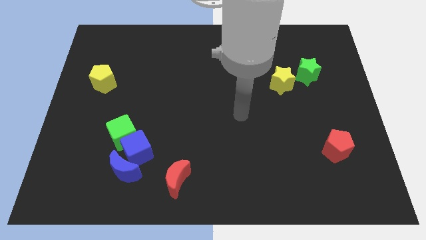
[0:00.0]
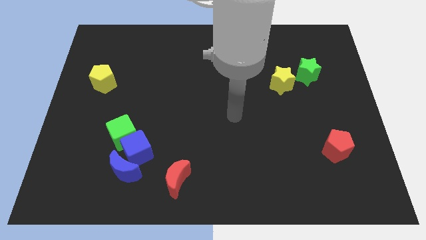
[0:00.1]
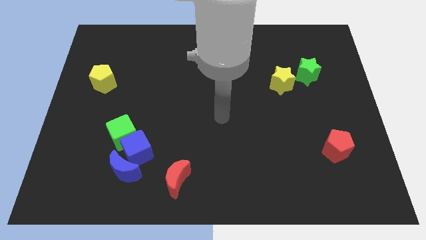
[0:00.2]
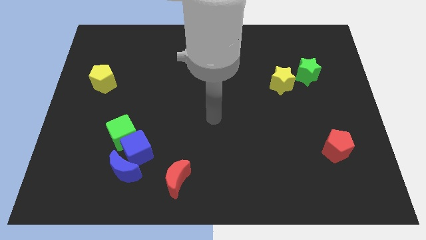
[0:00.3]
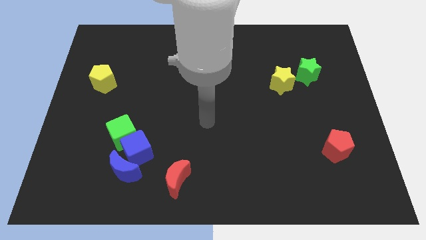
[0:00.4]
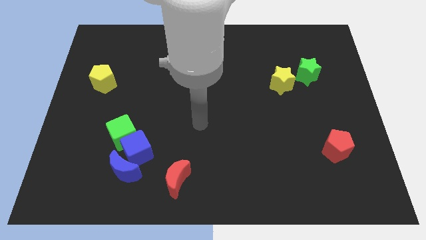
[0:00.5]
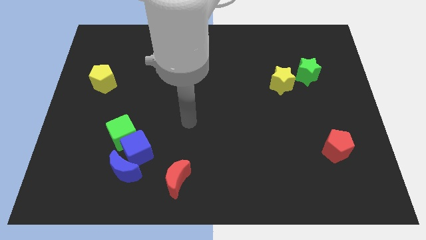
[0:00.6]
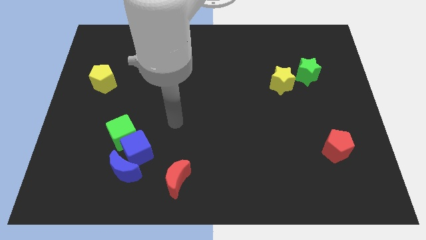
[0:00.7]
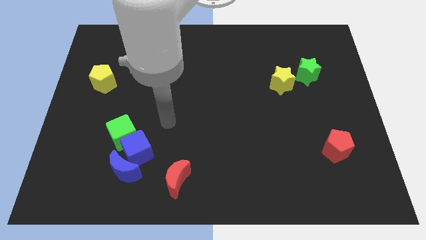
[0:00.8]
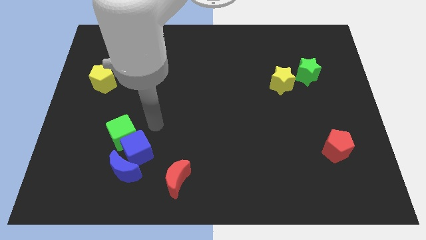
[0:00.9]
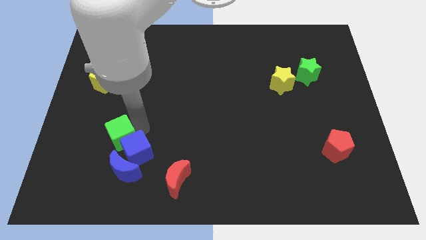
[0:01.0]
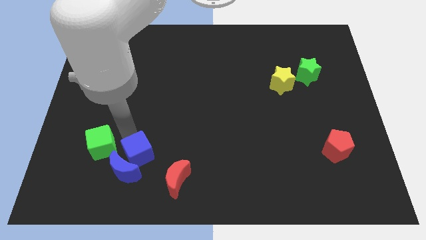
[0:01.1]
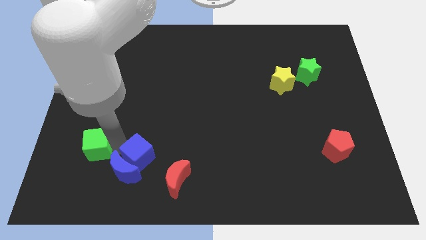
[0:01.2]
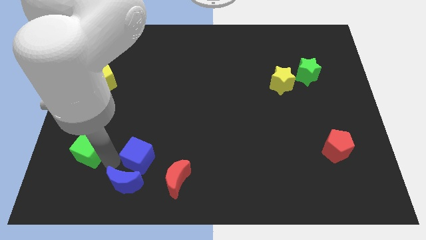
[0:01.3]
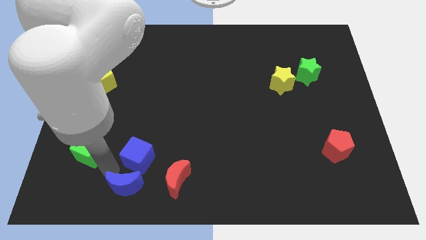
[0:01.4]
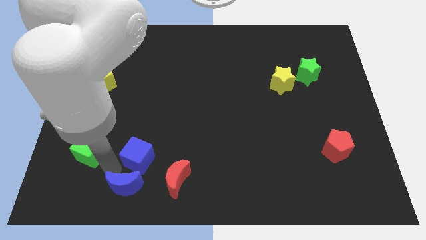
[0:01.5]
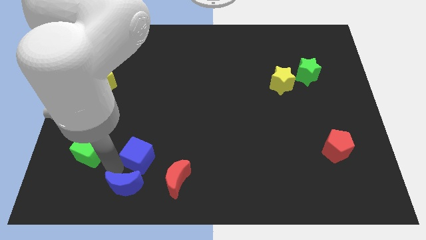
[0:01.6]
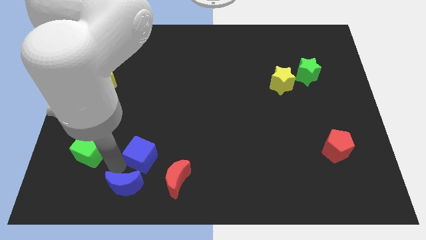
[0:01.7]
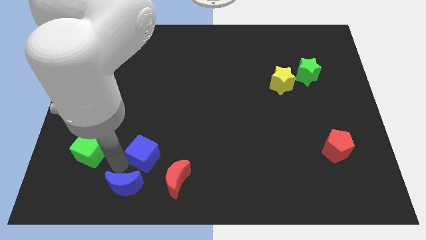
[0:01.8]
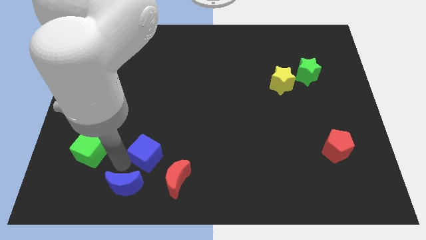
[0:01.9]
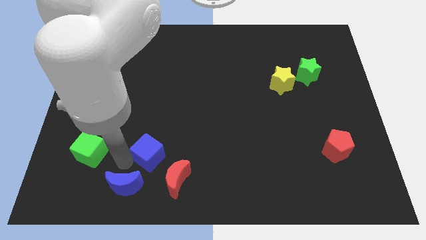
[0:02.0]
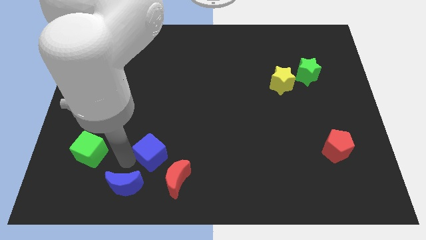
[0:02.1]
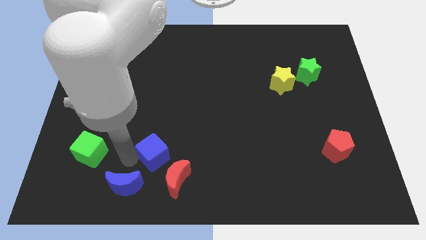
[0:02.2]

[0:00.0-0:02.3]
move the blue cube away from the blue moon and green cube

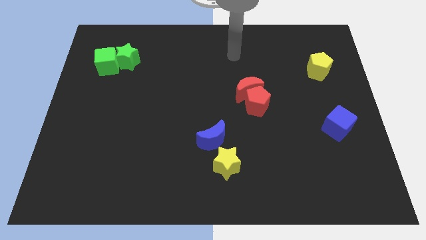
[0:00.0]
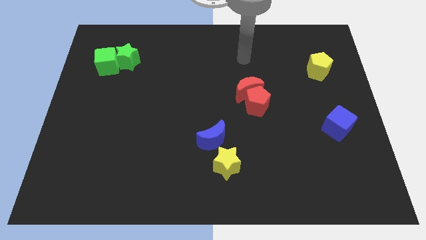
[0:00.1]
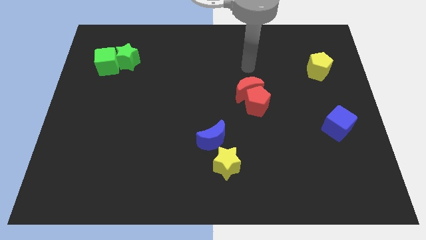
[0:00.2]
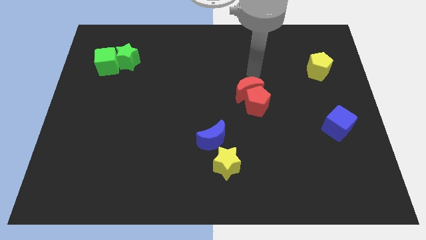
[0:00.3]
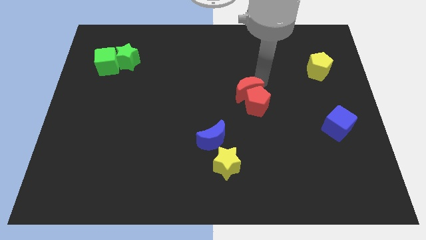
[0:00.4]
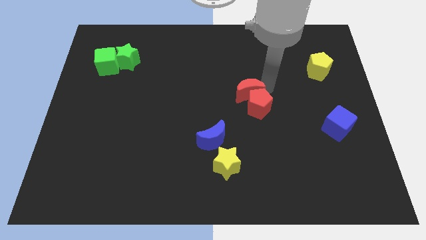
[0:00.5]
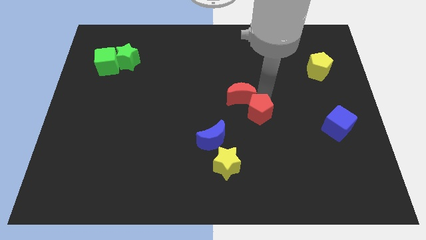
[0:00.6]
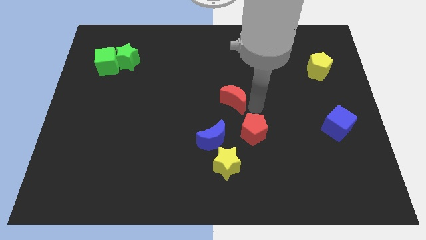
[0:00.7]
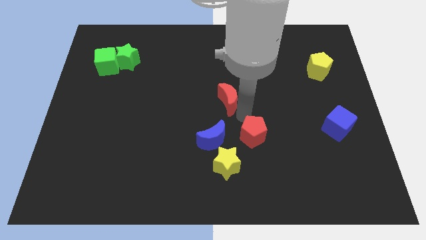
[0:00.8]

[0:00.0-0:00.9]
move the red moon away from the red pentagon

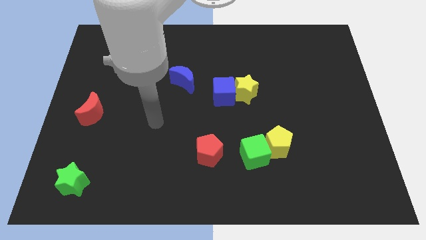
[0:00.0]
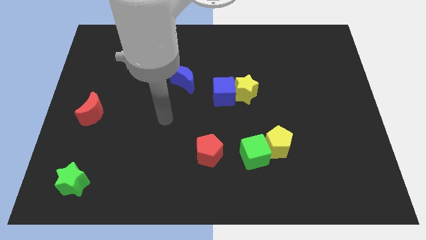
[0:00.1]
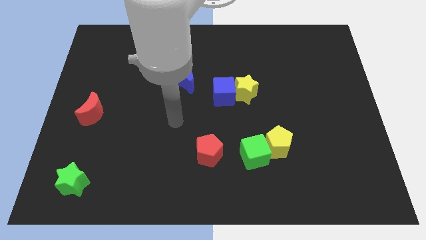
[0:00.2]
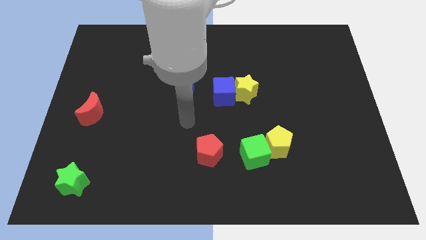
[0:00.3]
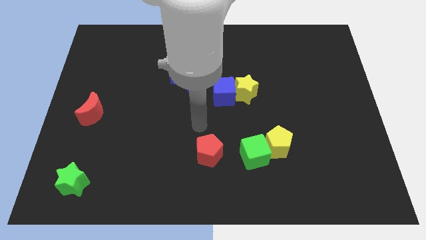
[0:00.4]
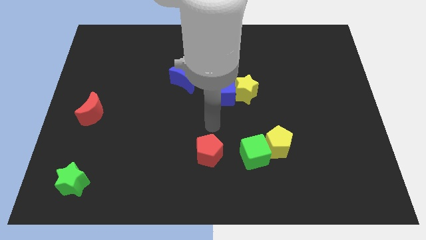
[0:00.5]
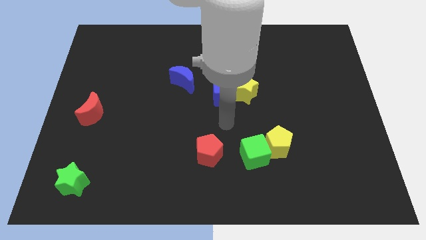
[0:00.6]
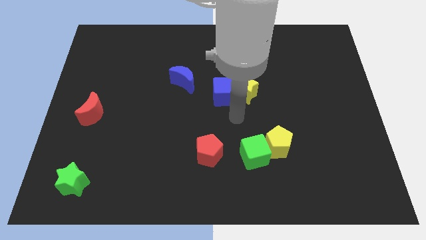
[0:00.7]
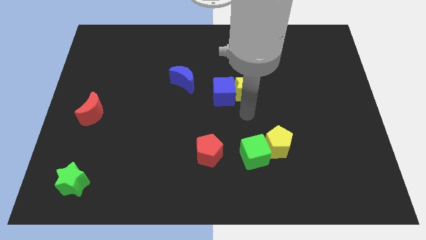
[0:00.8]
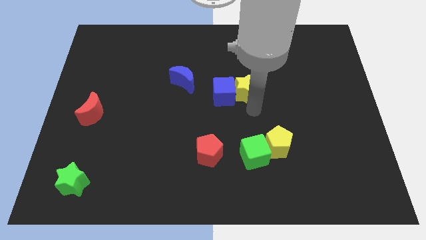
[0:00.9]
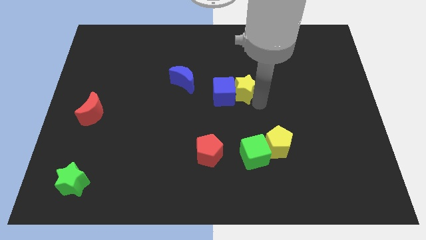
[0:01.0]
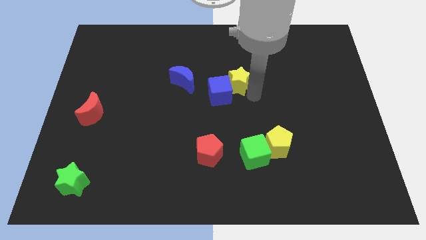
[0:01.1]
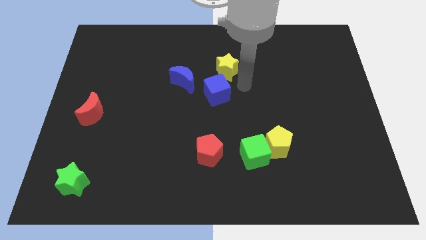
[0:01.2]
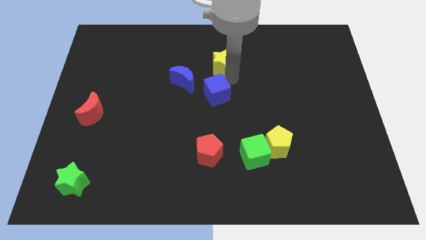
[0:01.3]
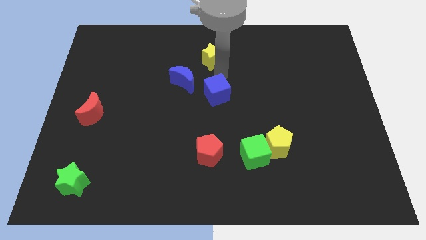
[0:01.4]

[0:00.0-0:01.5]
separate the blue cube from the yellow star

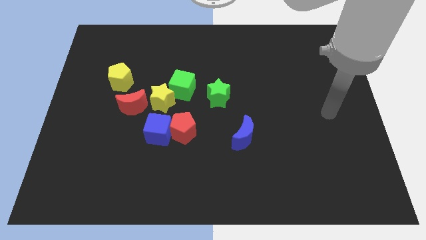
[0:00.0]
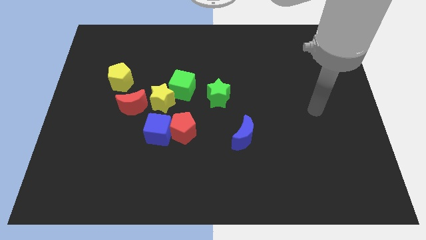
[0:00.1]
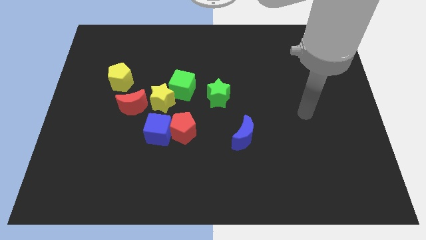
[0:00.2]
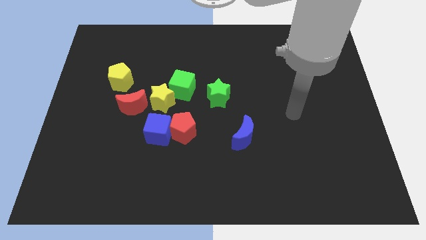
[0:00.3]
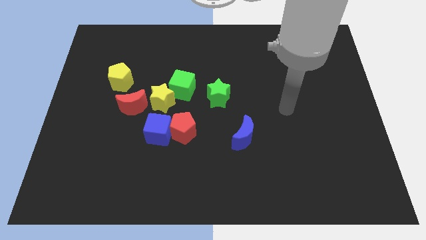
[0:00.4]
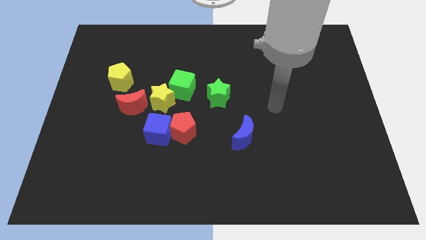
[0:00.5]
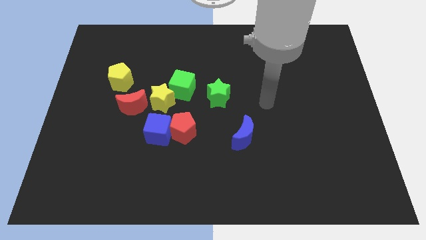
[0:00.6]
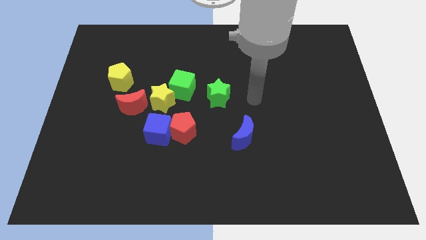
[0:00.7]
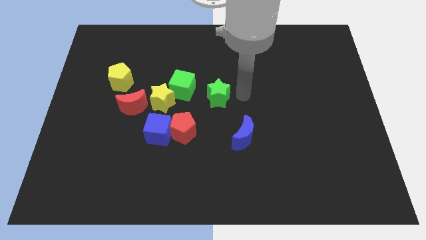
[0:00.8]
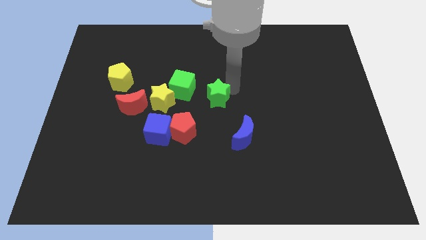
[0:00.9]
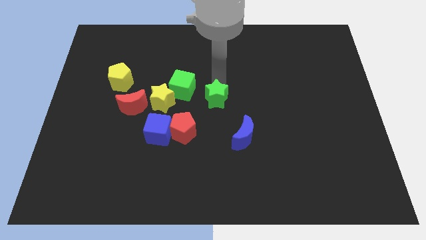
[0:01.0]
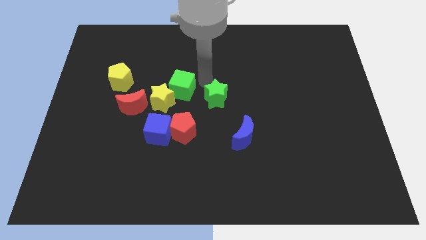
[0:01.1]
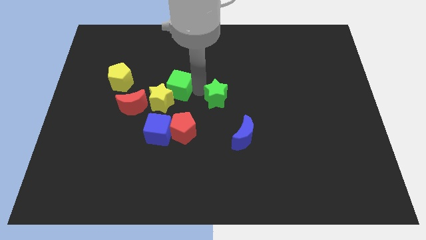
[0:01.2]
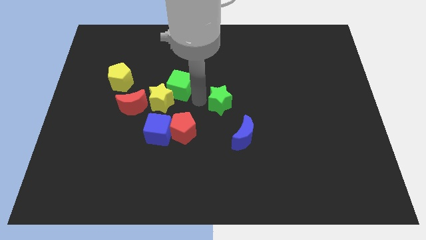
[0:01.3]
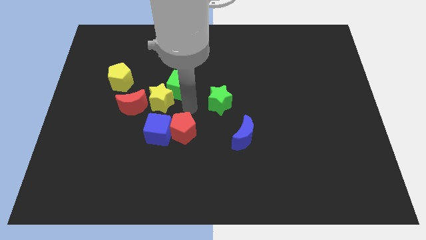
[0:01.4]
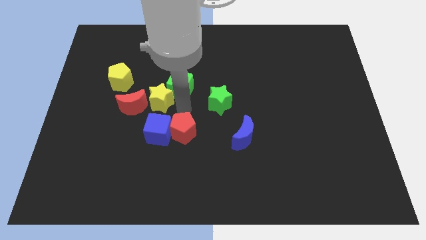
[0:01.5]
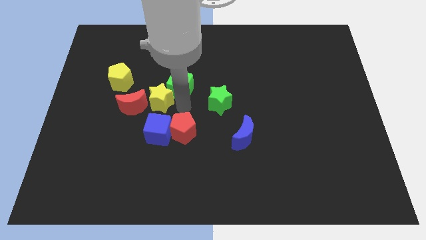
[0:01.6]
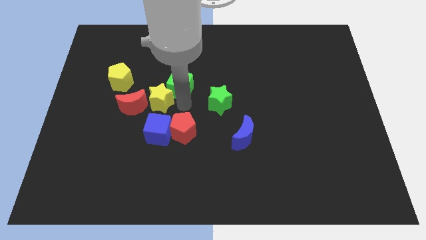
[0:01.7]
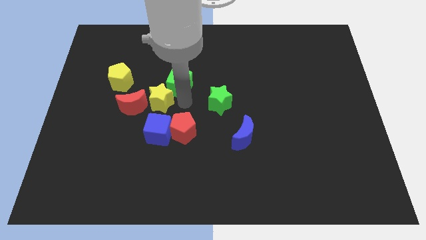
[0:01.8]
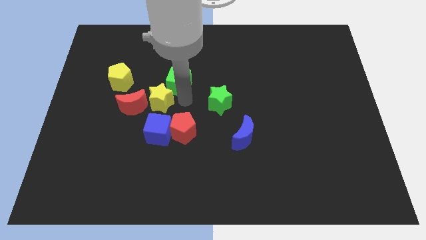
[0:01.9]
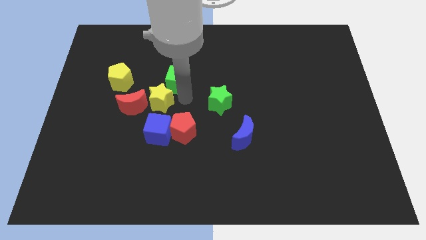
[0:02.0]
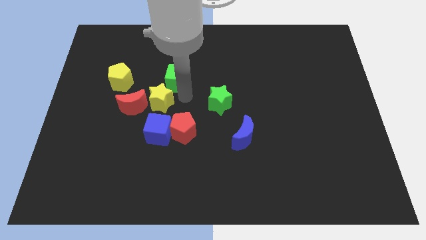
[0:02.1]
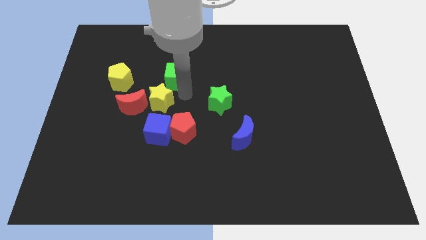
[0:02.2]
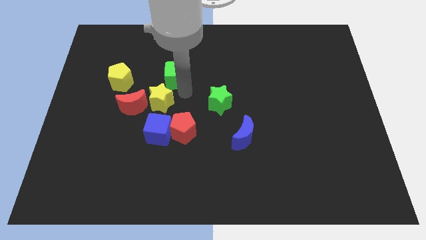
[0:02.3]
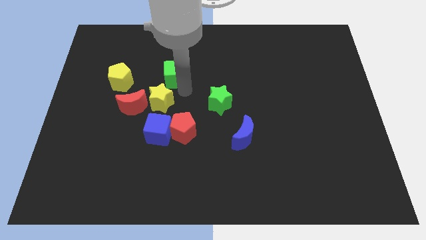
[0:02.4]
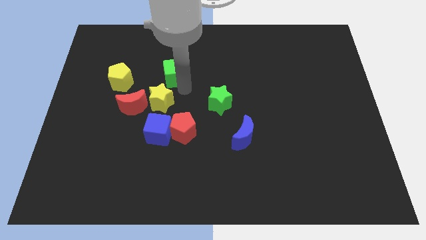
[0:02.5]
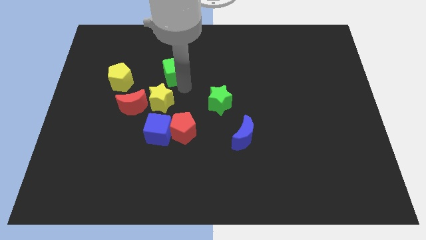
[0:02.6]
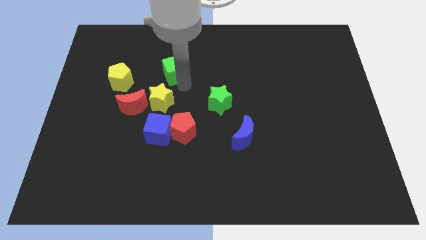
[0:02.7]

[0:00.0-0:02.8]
move the green cube away from the yellow star and green star

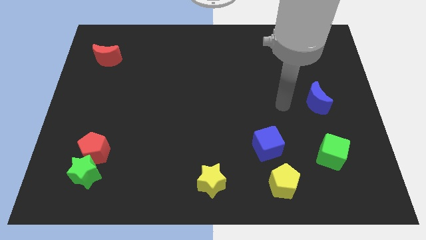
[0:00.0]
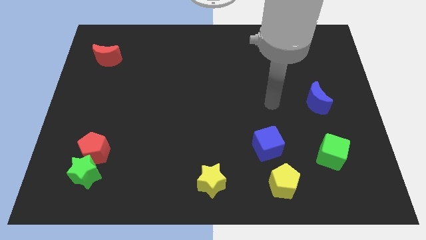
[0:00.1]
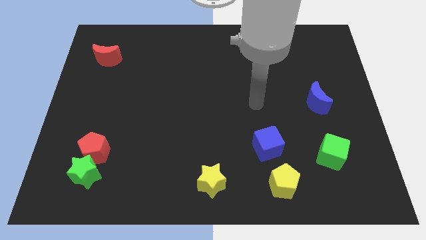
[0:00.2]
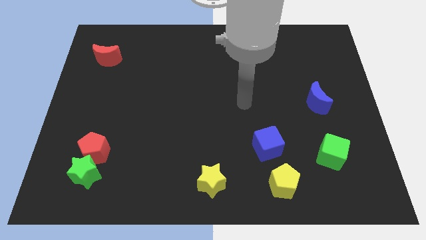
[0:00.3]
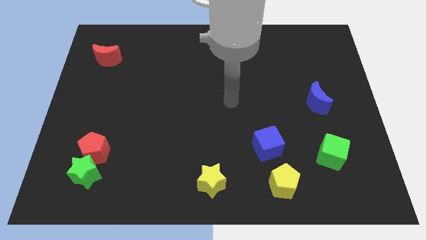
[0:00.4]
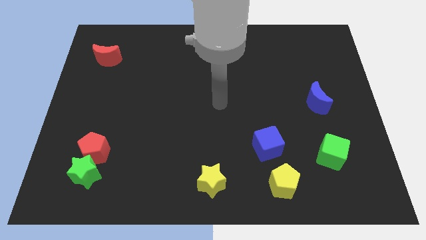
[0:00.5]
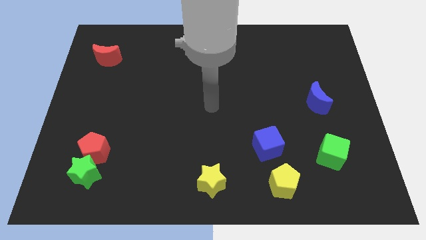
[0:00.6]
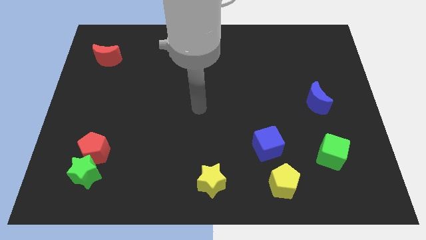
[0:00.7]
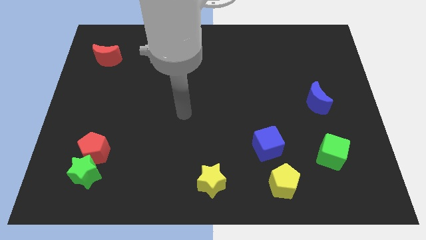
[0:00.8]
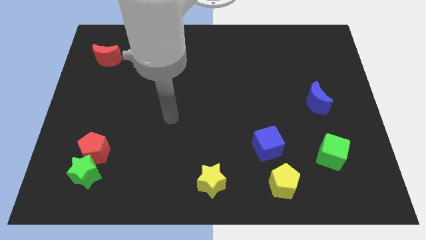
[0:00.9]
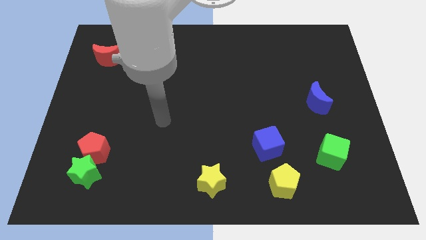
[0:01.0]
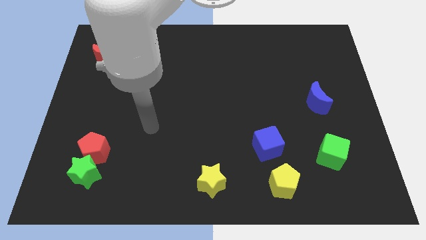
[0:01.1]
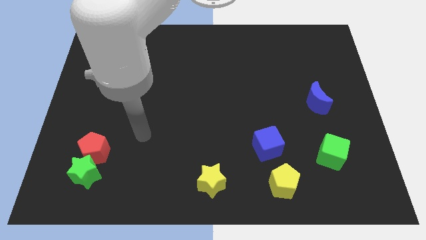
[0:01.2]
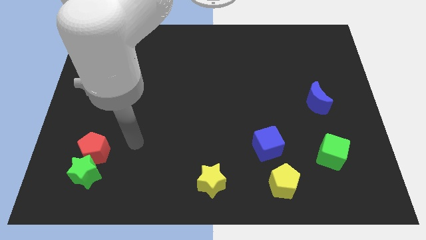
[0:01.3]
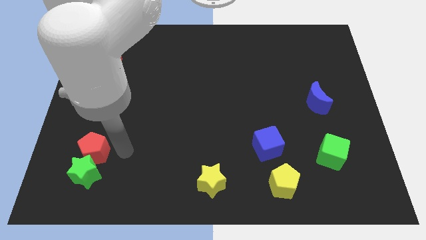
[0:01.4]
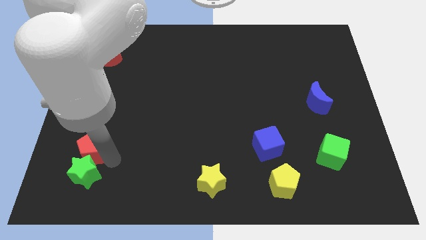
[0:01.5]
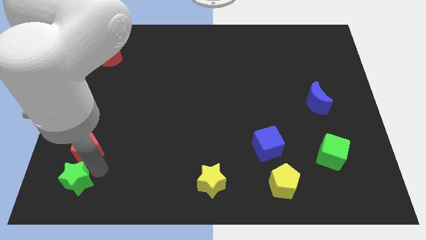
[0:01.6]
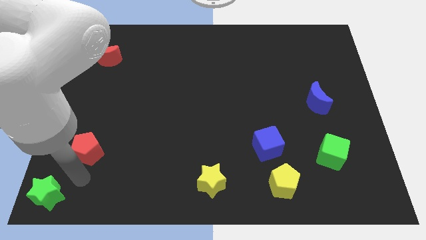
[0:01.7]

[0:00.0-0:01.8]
move the red pentagon away from the green star
